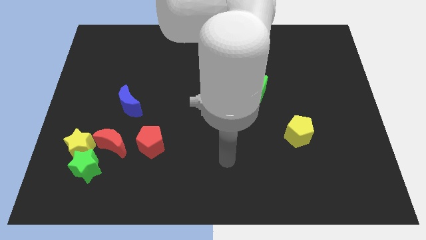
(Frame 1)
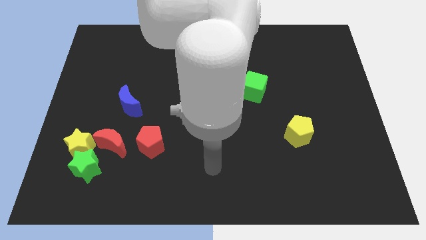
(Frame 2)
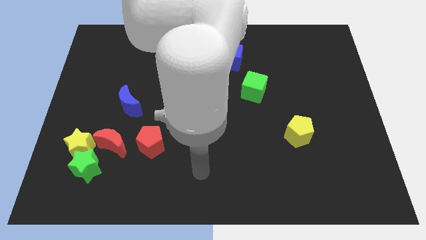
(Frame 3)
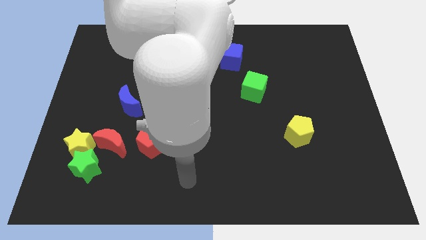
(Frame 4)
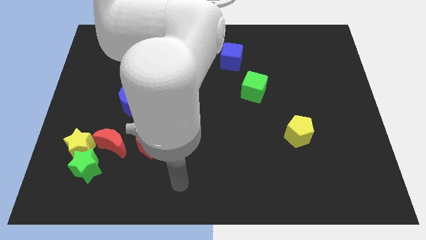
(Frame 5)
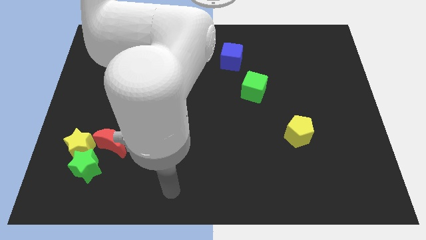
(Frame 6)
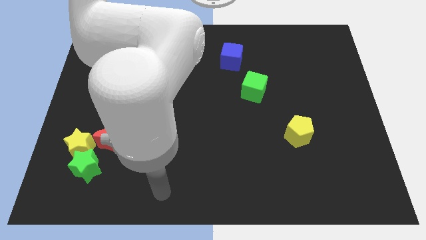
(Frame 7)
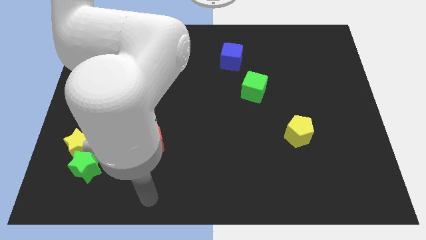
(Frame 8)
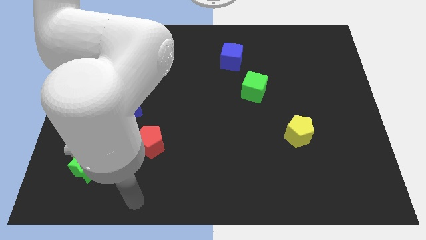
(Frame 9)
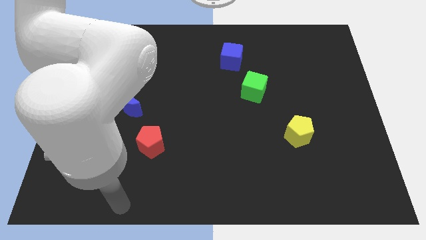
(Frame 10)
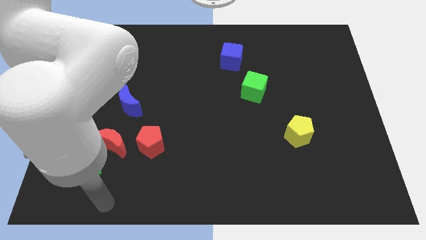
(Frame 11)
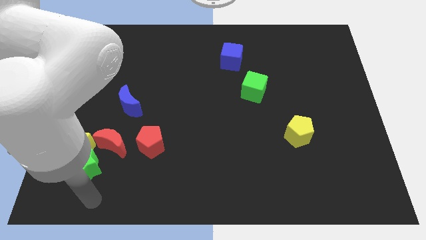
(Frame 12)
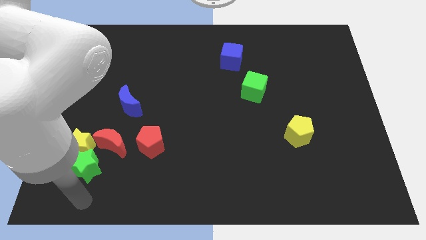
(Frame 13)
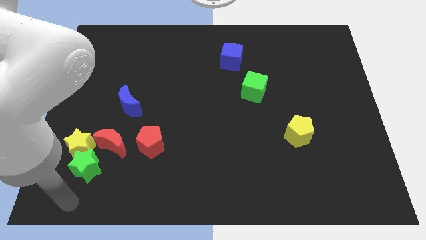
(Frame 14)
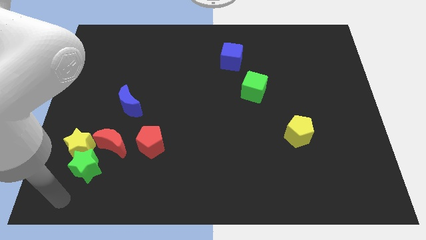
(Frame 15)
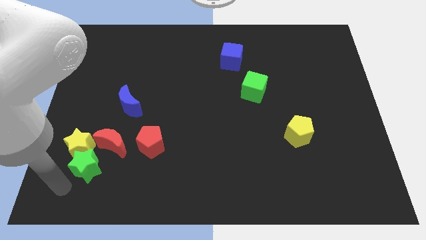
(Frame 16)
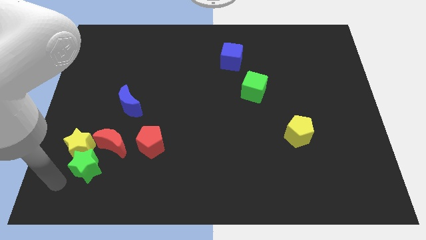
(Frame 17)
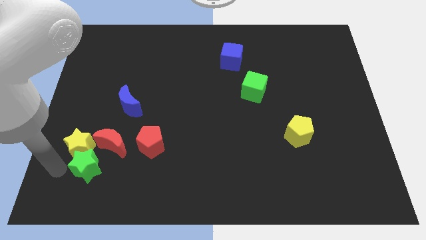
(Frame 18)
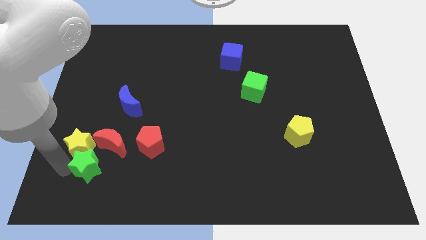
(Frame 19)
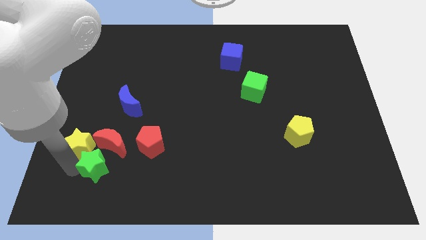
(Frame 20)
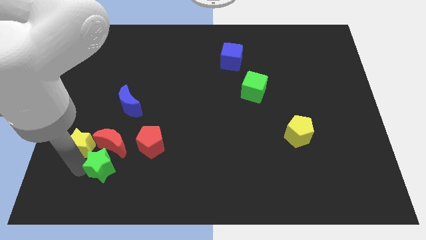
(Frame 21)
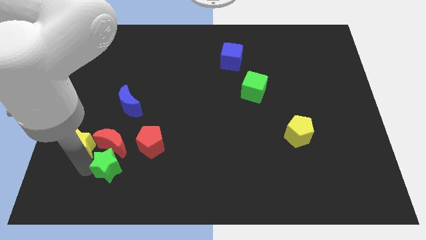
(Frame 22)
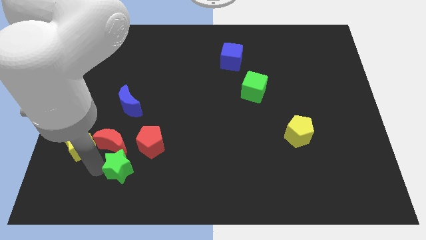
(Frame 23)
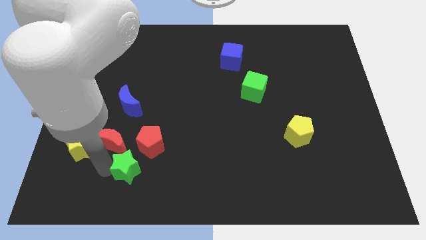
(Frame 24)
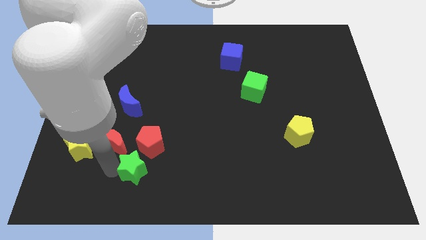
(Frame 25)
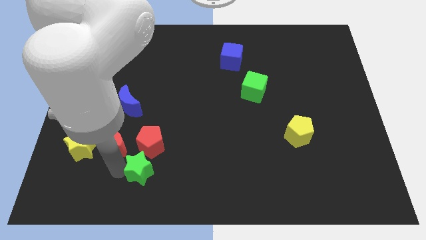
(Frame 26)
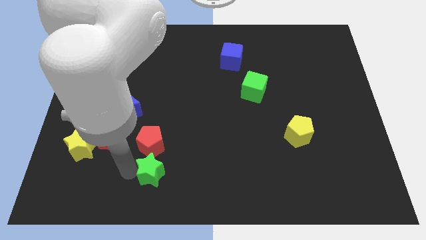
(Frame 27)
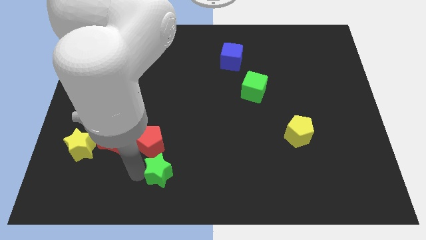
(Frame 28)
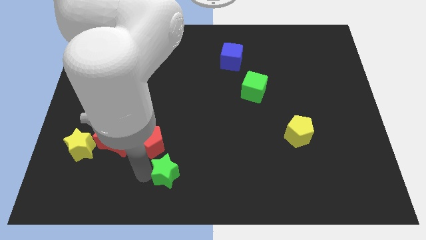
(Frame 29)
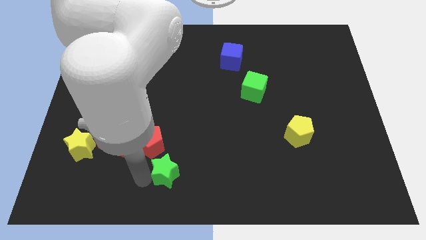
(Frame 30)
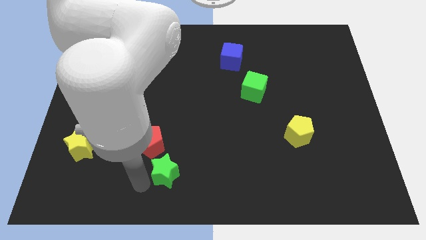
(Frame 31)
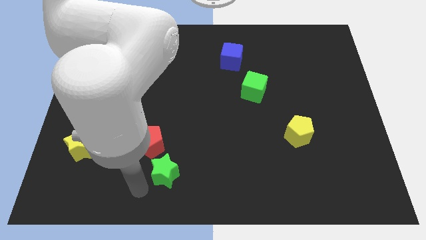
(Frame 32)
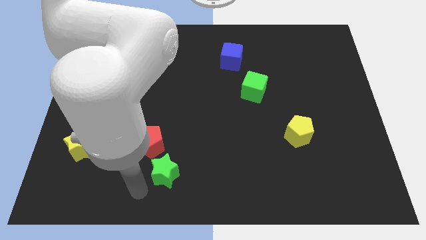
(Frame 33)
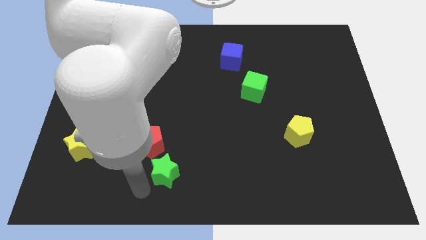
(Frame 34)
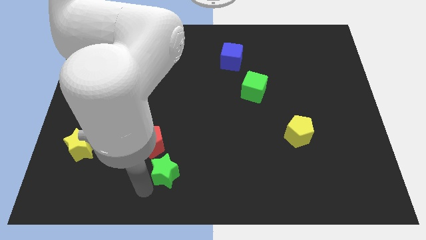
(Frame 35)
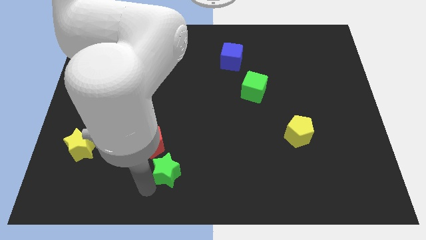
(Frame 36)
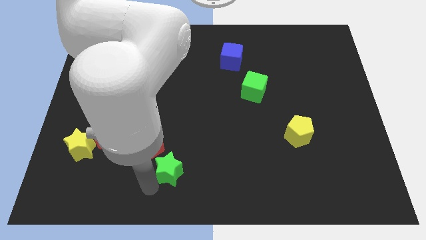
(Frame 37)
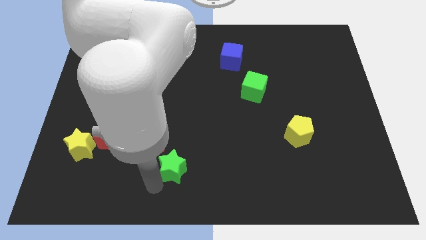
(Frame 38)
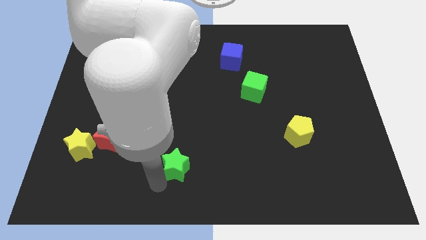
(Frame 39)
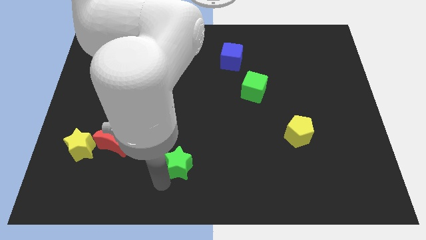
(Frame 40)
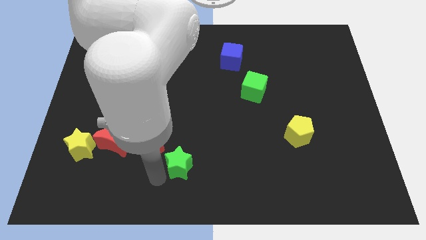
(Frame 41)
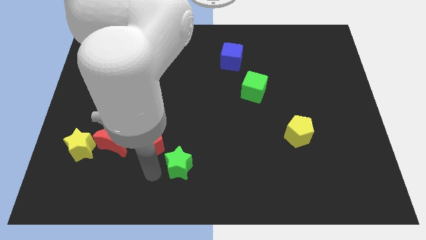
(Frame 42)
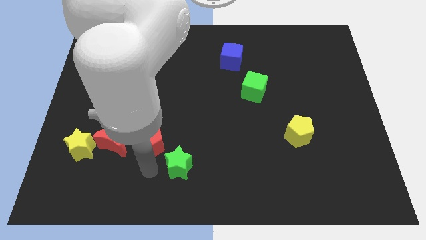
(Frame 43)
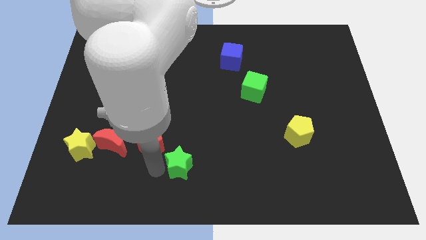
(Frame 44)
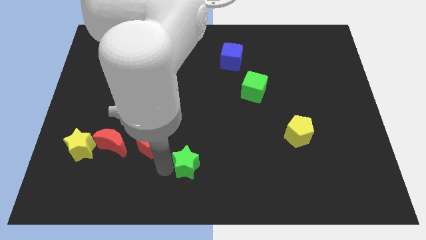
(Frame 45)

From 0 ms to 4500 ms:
move the green star right

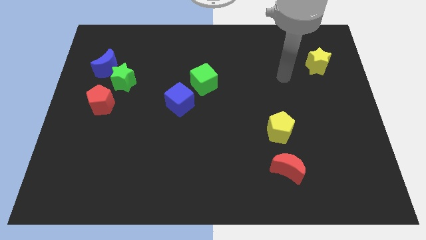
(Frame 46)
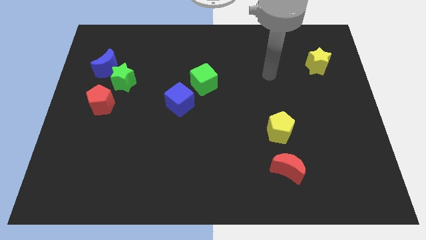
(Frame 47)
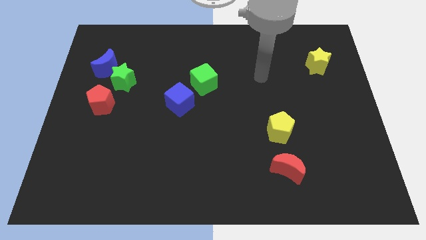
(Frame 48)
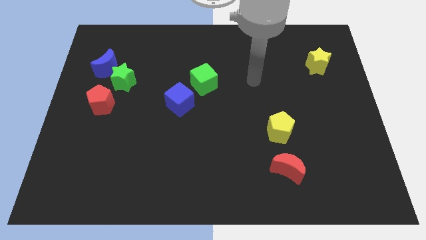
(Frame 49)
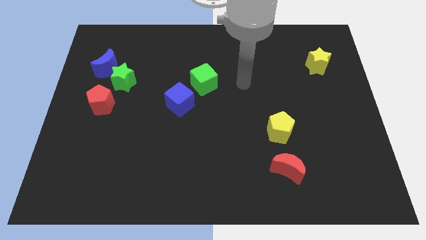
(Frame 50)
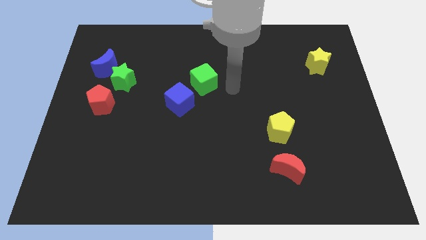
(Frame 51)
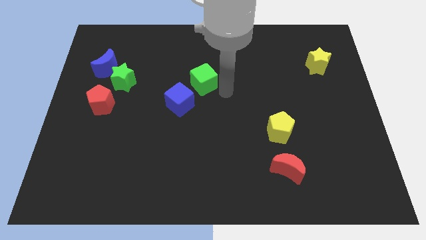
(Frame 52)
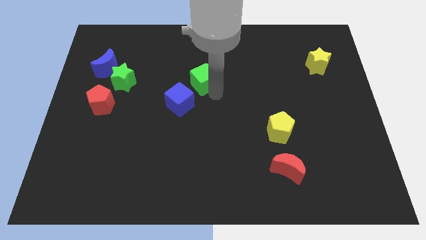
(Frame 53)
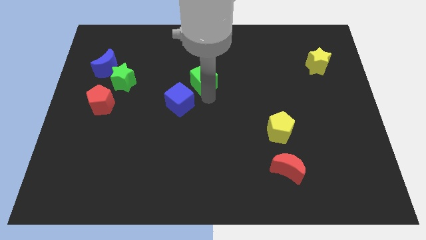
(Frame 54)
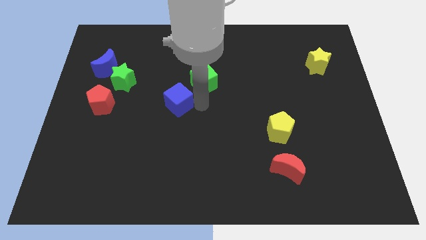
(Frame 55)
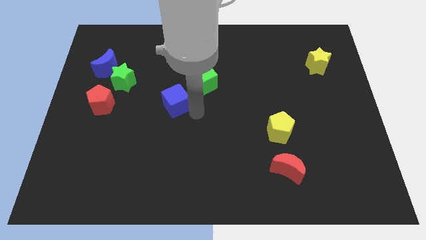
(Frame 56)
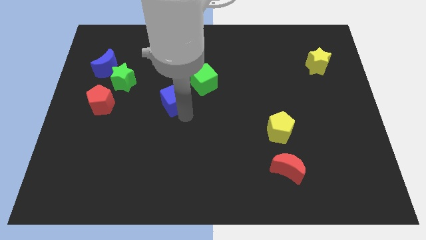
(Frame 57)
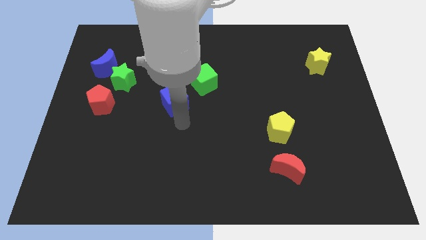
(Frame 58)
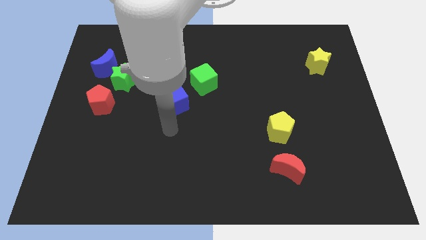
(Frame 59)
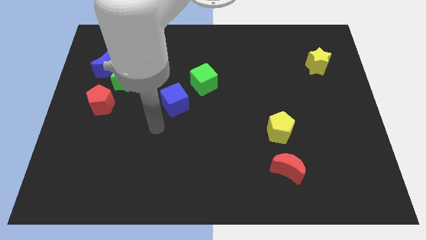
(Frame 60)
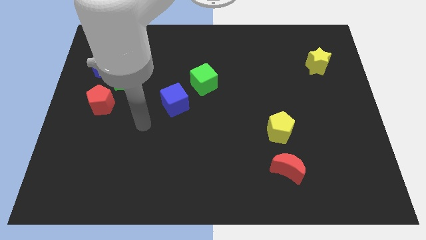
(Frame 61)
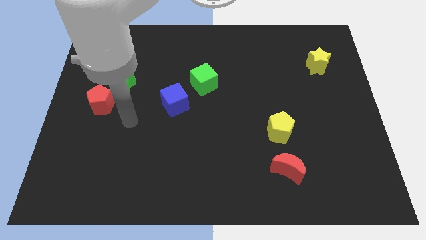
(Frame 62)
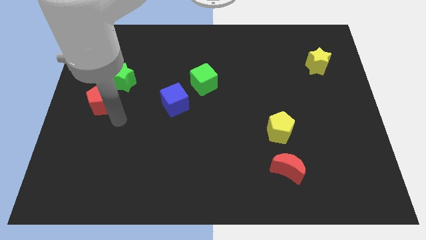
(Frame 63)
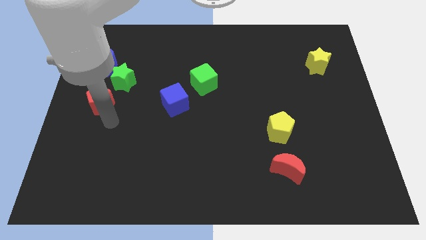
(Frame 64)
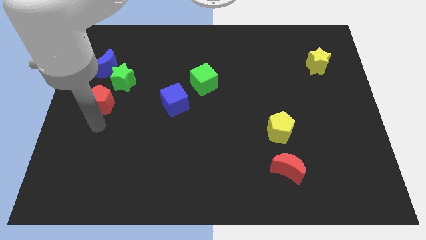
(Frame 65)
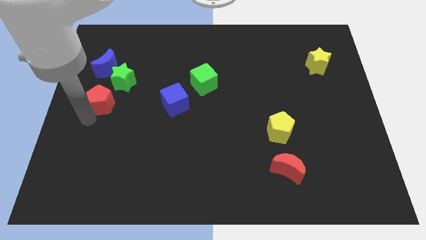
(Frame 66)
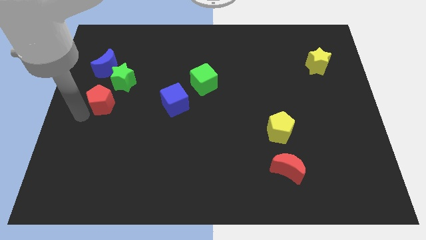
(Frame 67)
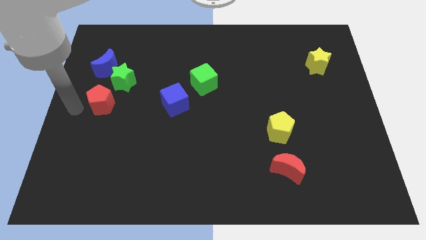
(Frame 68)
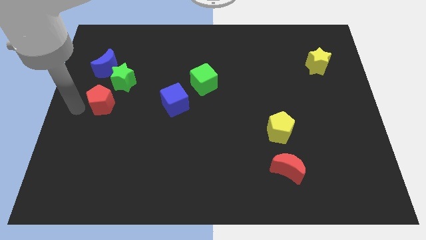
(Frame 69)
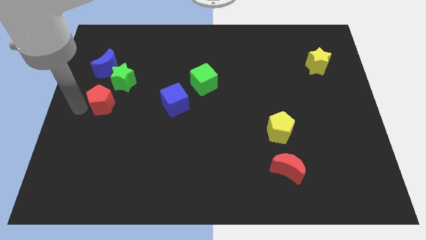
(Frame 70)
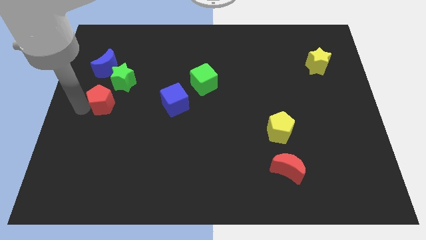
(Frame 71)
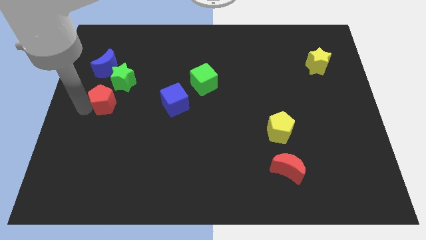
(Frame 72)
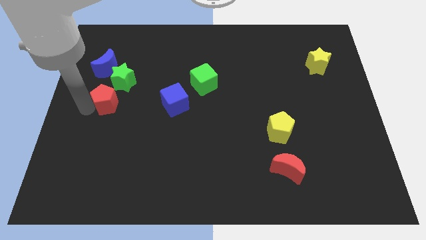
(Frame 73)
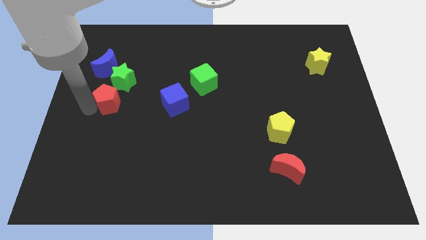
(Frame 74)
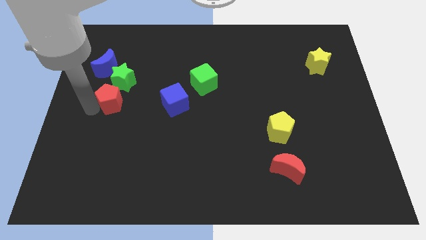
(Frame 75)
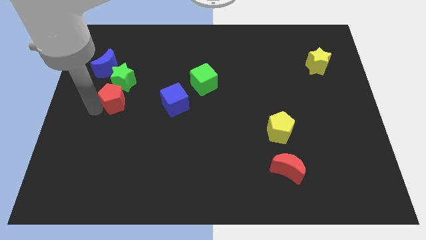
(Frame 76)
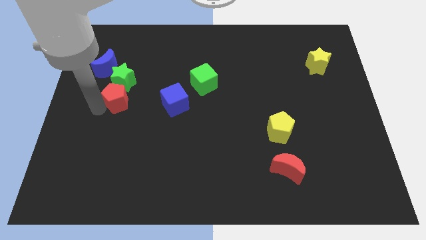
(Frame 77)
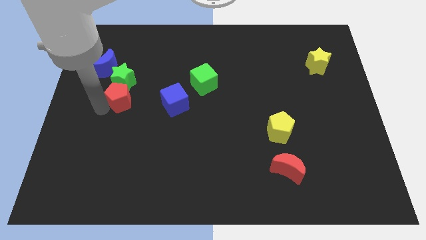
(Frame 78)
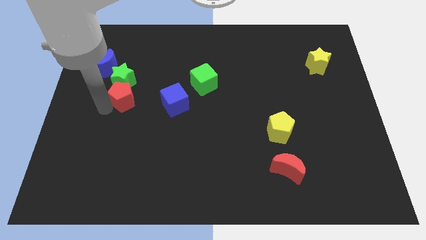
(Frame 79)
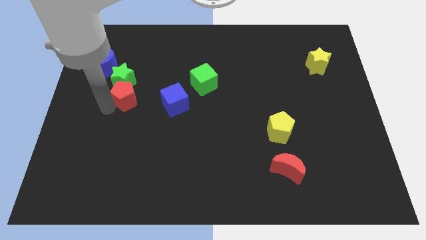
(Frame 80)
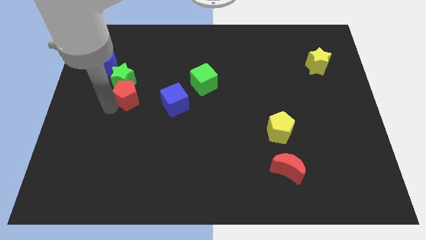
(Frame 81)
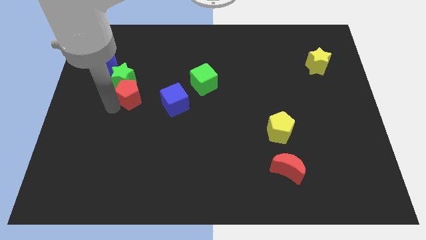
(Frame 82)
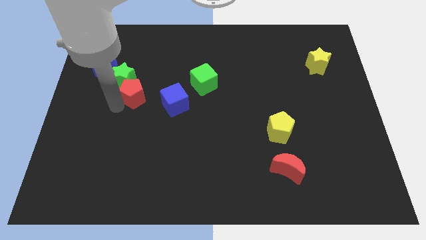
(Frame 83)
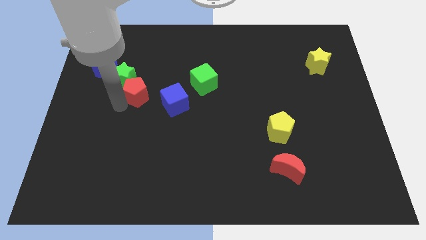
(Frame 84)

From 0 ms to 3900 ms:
slightly push the red pentagon up and to the right

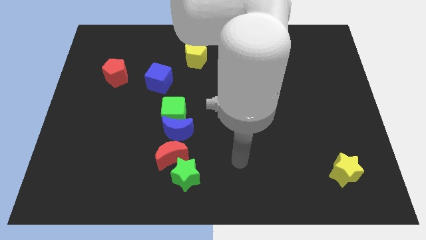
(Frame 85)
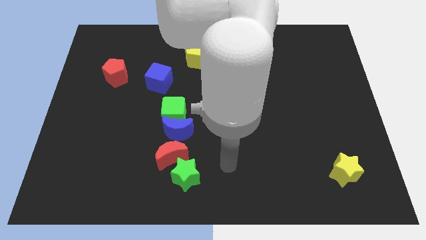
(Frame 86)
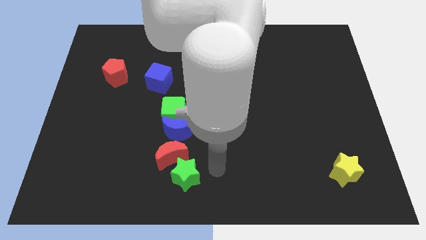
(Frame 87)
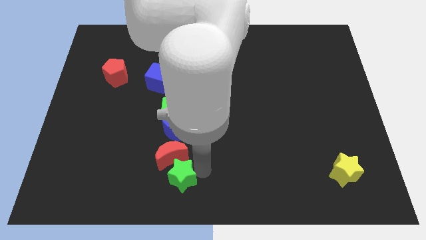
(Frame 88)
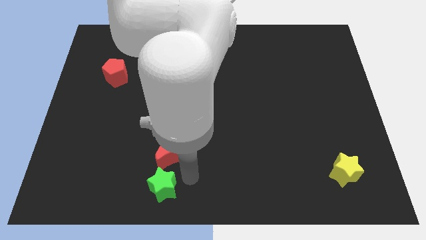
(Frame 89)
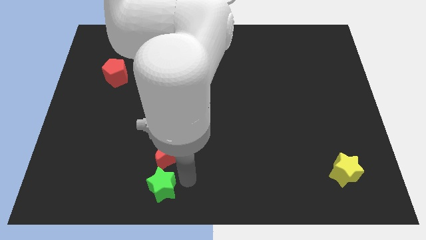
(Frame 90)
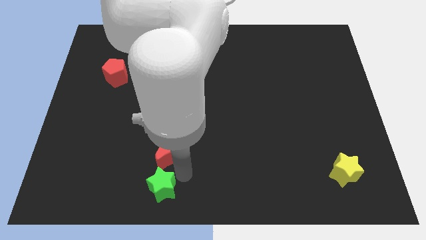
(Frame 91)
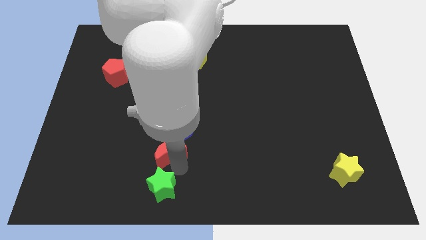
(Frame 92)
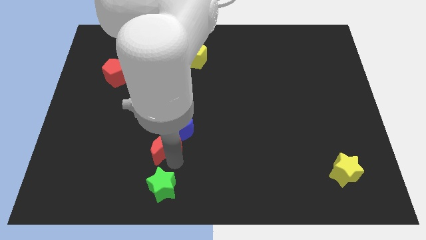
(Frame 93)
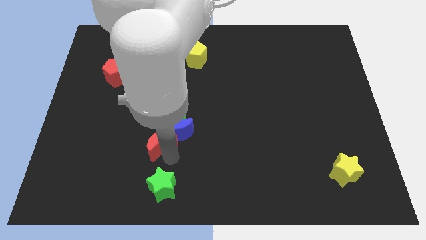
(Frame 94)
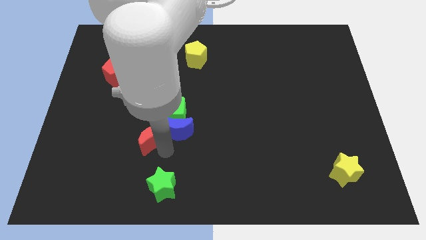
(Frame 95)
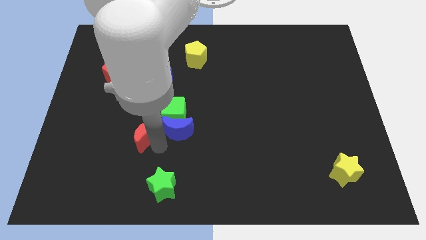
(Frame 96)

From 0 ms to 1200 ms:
push the red moon up and then left a little
